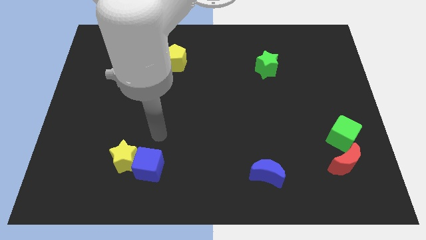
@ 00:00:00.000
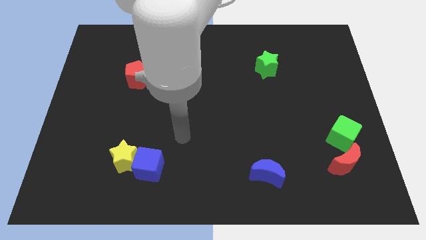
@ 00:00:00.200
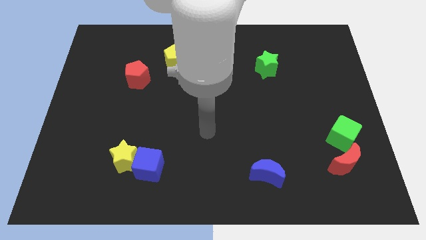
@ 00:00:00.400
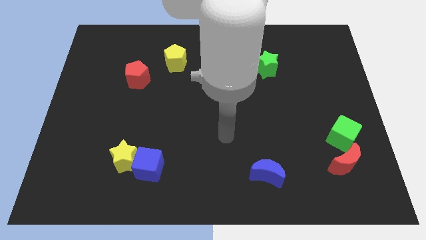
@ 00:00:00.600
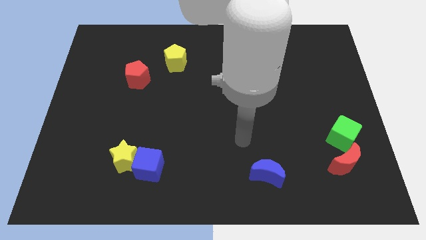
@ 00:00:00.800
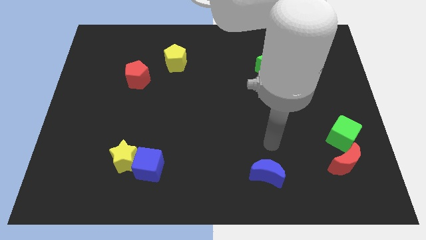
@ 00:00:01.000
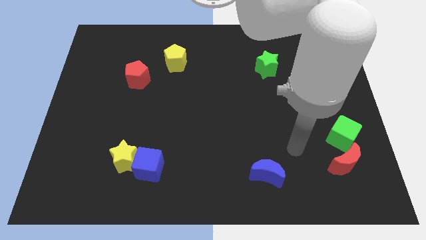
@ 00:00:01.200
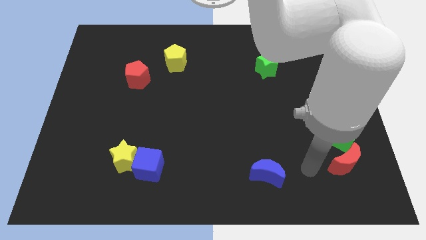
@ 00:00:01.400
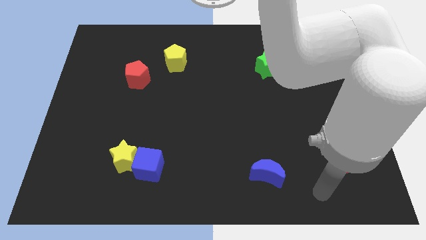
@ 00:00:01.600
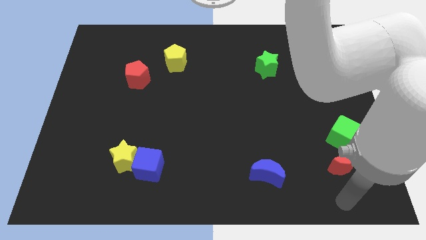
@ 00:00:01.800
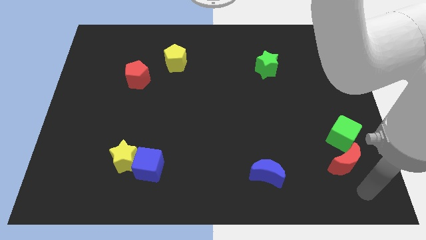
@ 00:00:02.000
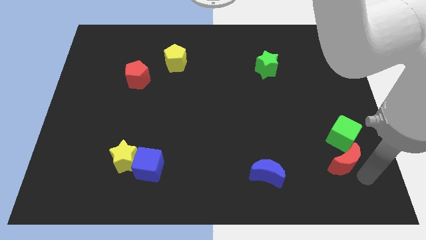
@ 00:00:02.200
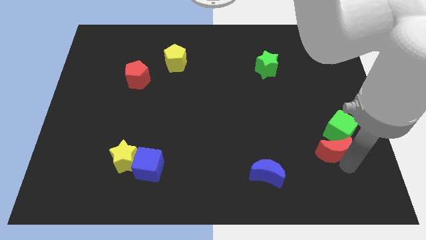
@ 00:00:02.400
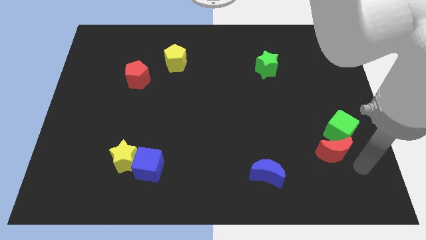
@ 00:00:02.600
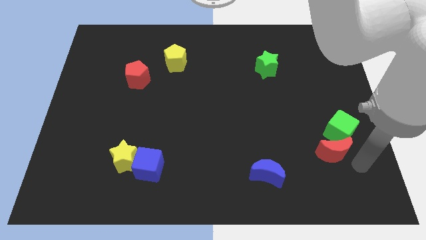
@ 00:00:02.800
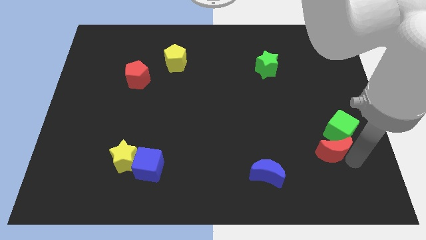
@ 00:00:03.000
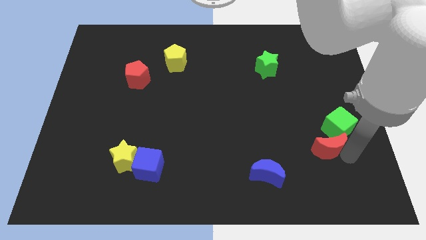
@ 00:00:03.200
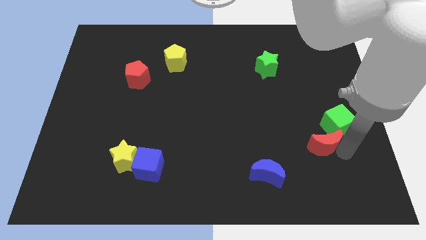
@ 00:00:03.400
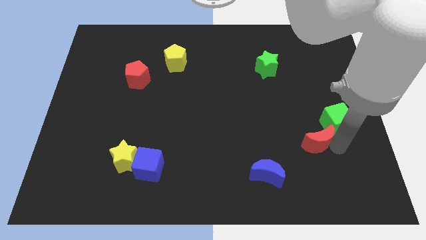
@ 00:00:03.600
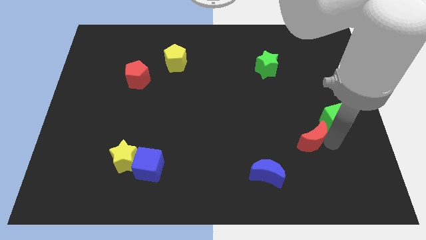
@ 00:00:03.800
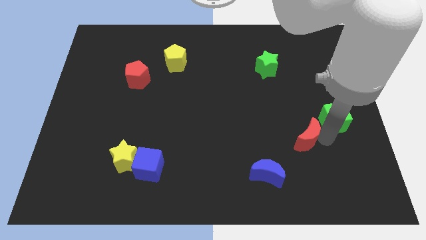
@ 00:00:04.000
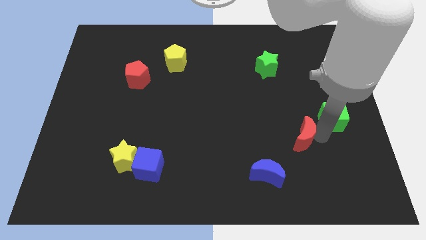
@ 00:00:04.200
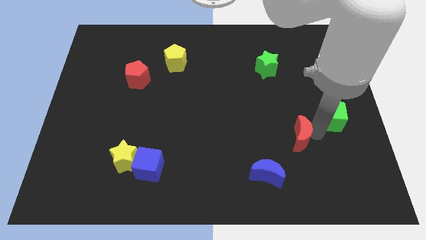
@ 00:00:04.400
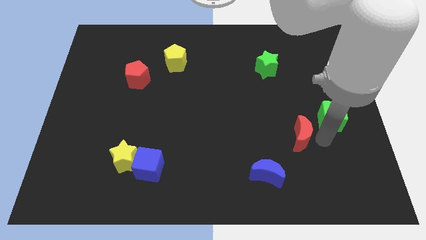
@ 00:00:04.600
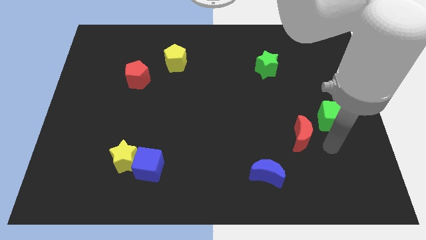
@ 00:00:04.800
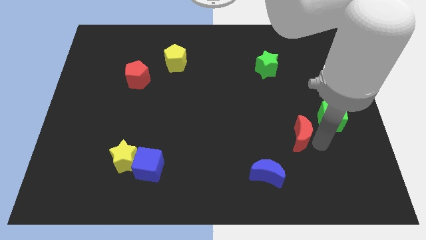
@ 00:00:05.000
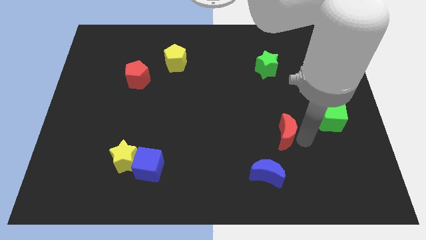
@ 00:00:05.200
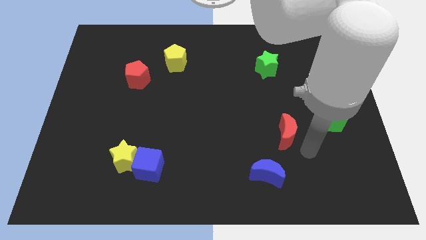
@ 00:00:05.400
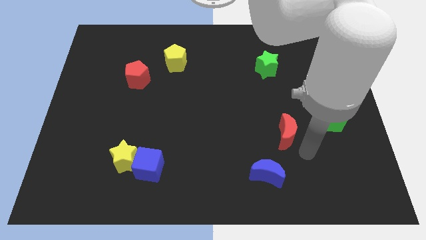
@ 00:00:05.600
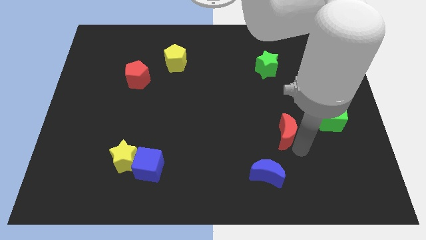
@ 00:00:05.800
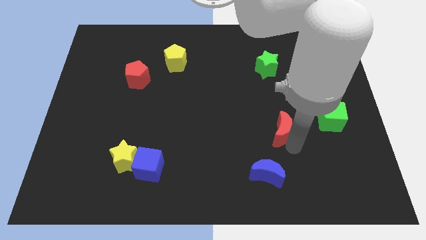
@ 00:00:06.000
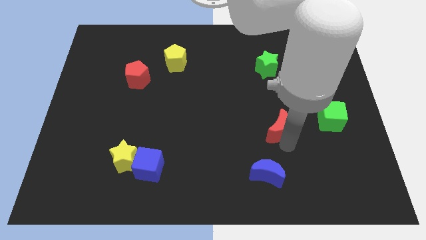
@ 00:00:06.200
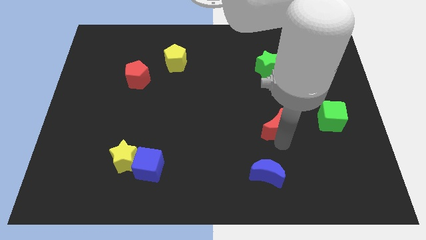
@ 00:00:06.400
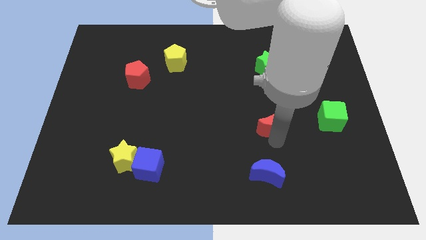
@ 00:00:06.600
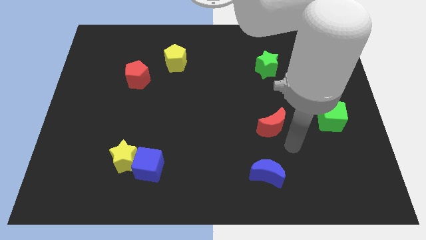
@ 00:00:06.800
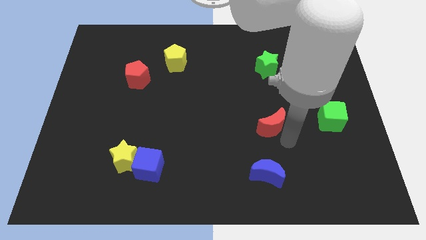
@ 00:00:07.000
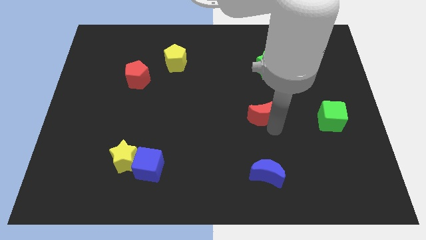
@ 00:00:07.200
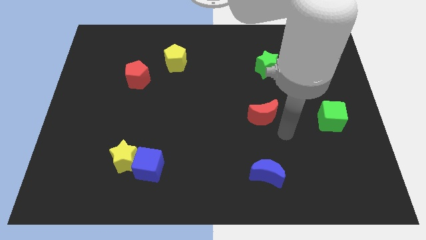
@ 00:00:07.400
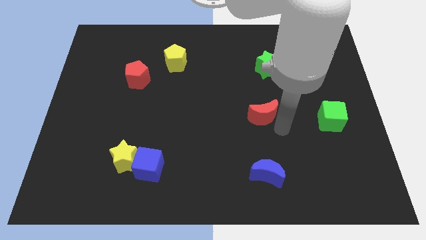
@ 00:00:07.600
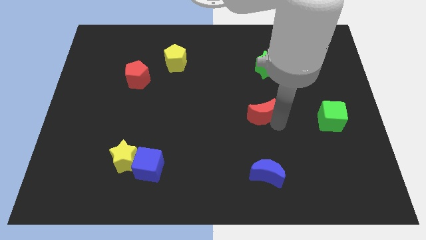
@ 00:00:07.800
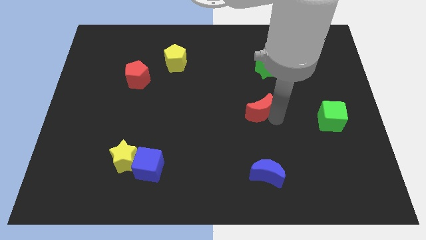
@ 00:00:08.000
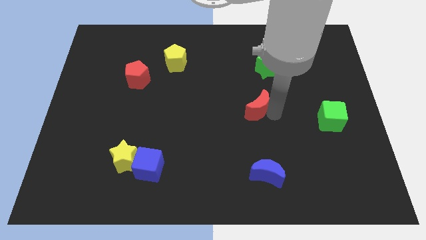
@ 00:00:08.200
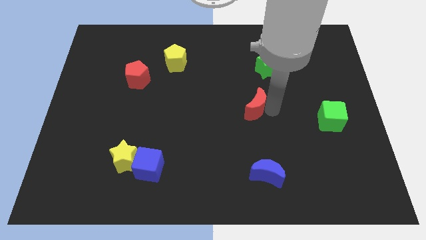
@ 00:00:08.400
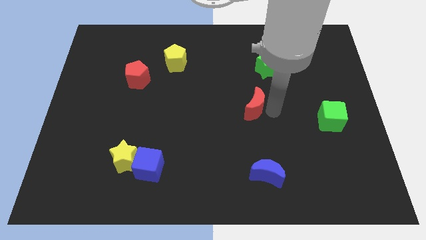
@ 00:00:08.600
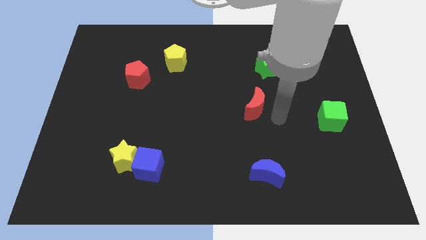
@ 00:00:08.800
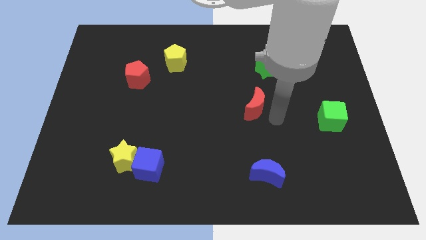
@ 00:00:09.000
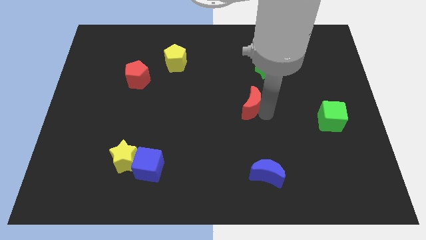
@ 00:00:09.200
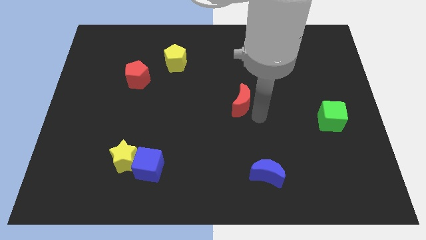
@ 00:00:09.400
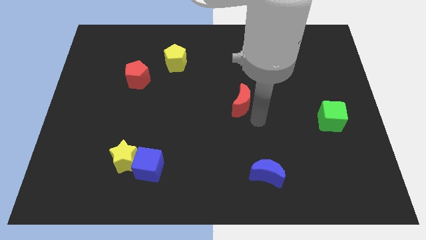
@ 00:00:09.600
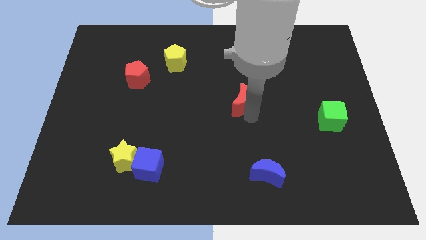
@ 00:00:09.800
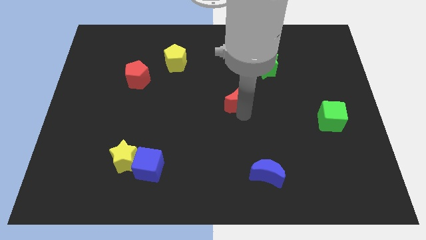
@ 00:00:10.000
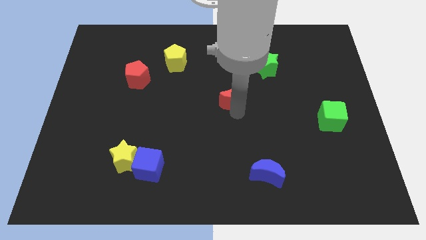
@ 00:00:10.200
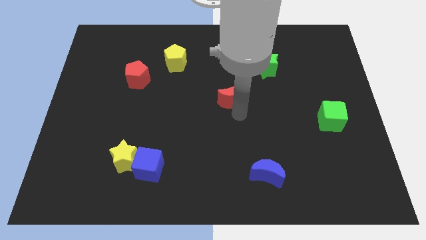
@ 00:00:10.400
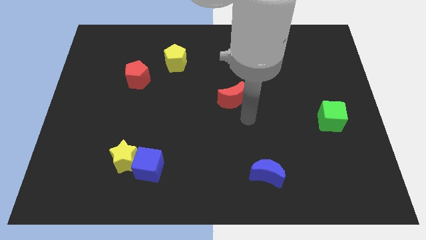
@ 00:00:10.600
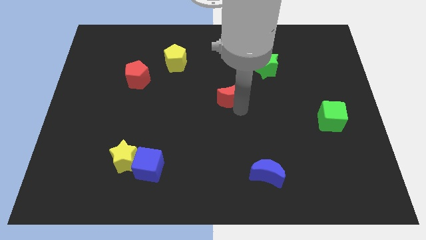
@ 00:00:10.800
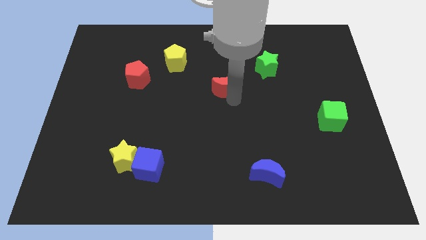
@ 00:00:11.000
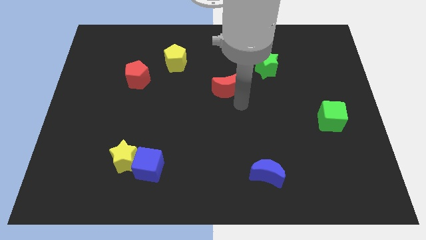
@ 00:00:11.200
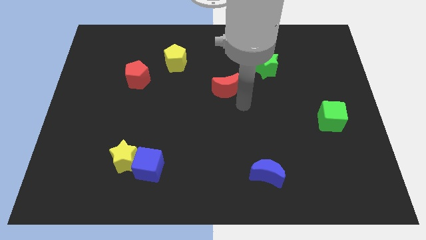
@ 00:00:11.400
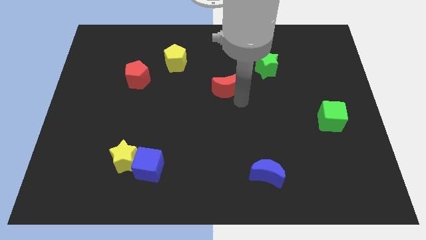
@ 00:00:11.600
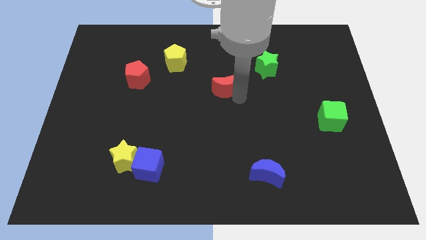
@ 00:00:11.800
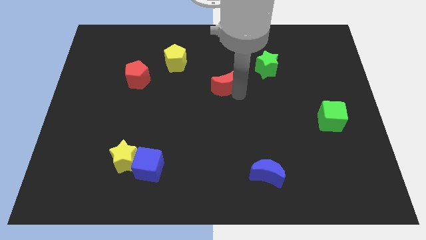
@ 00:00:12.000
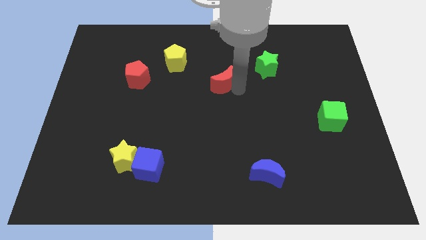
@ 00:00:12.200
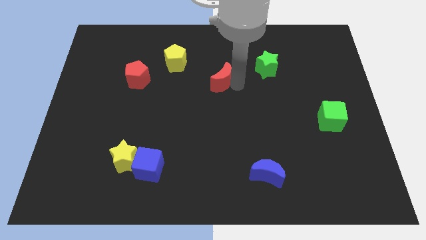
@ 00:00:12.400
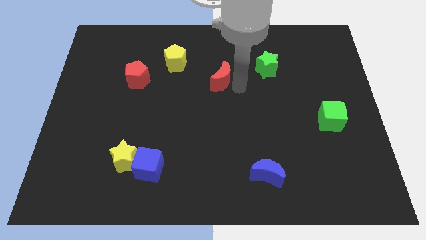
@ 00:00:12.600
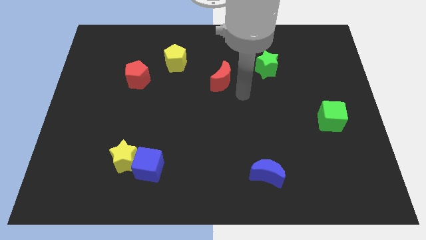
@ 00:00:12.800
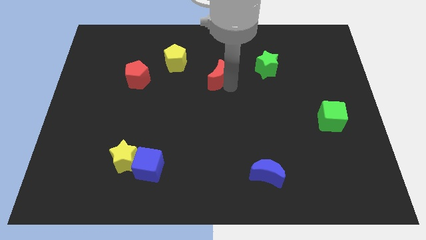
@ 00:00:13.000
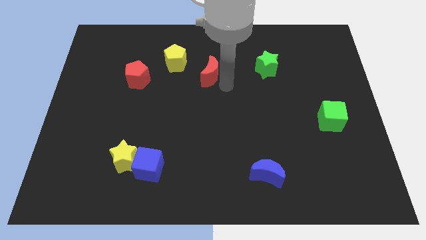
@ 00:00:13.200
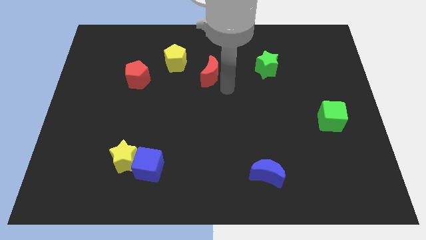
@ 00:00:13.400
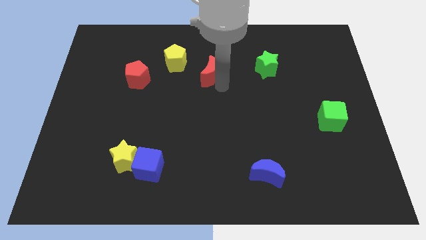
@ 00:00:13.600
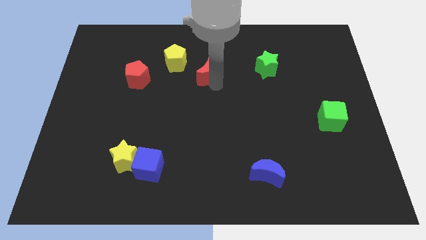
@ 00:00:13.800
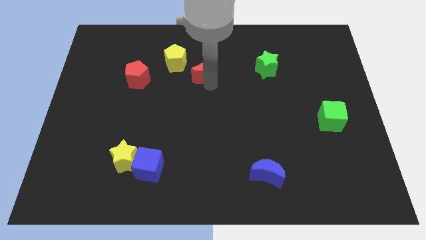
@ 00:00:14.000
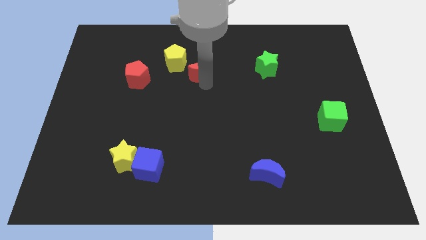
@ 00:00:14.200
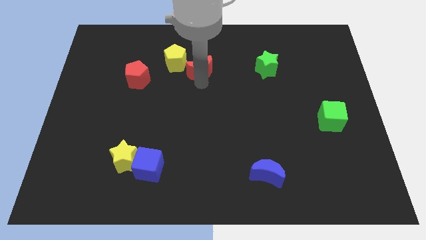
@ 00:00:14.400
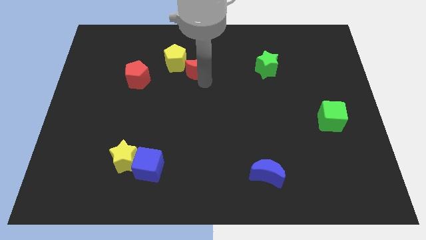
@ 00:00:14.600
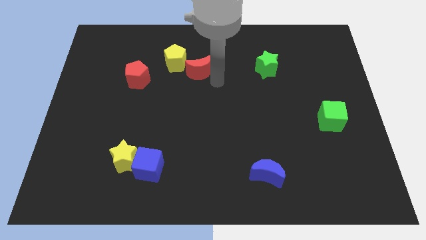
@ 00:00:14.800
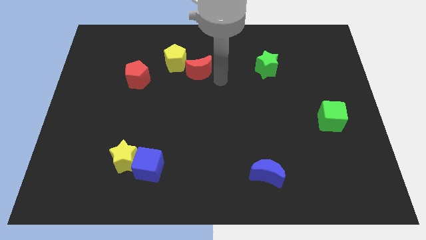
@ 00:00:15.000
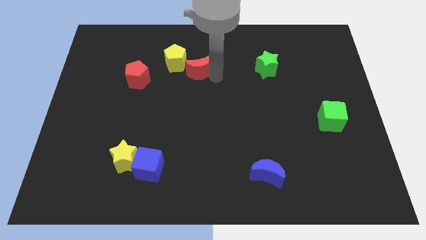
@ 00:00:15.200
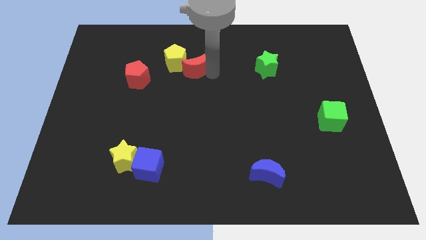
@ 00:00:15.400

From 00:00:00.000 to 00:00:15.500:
slide the red moon to the yellow pentagon
